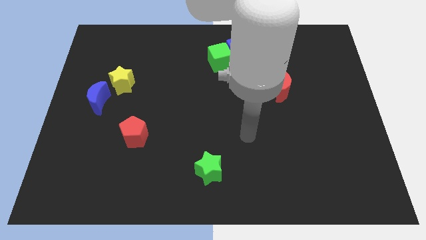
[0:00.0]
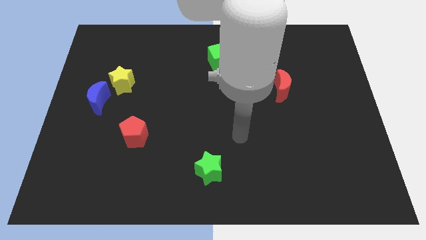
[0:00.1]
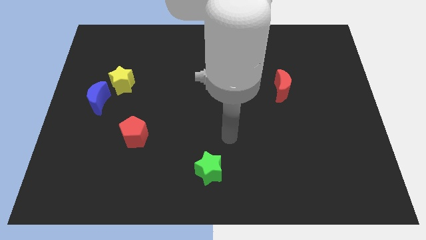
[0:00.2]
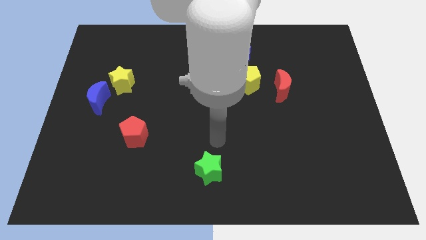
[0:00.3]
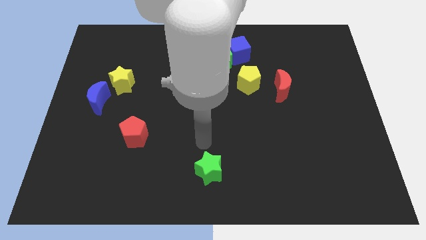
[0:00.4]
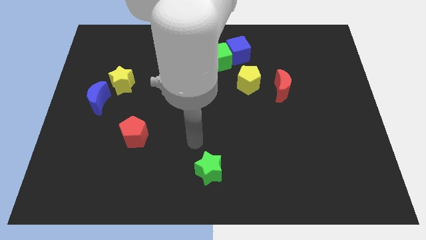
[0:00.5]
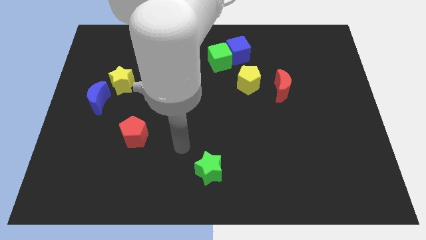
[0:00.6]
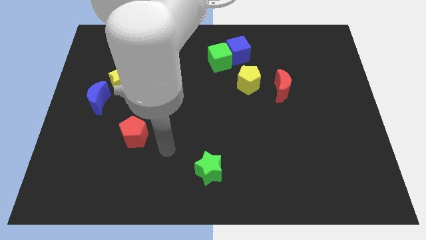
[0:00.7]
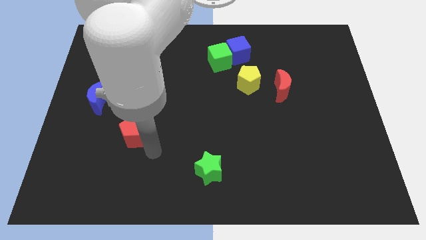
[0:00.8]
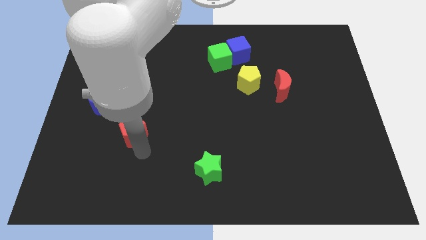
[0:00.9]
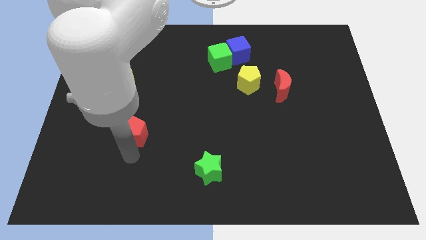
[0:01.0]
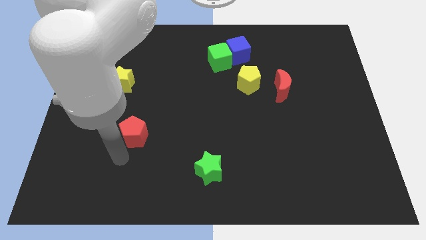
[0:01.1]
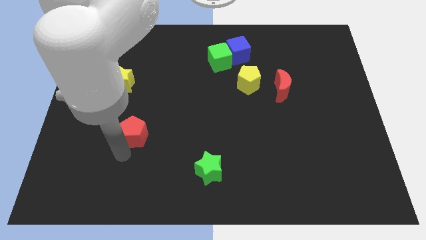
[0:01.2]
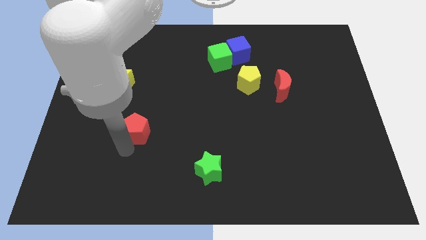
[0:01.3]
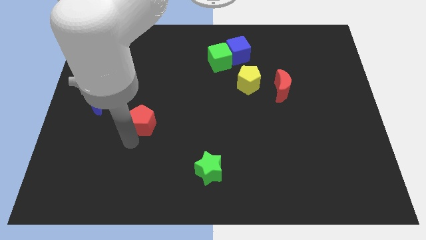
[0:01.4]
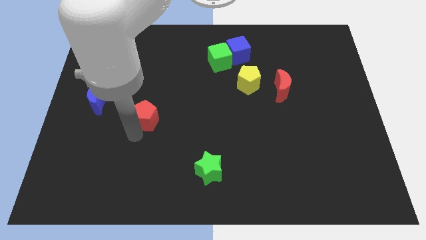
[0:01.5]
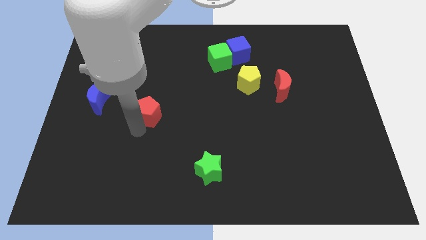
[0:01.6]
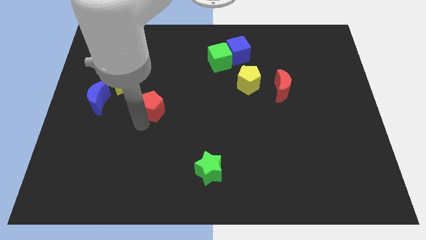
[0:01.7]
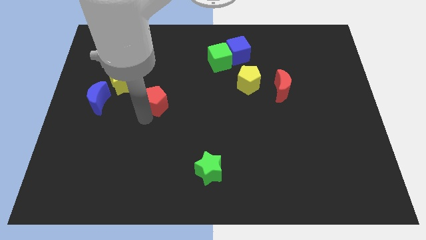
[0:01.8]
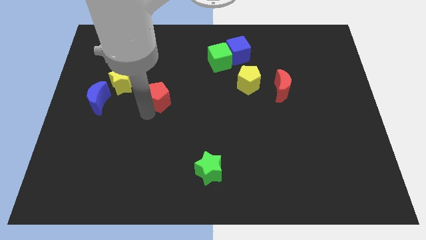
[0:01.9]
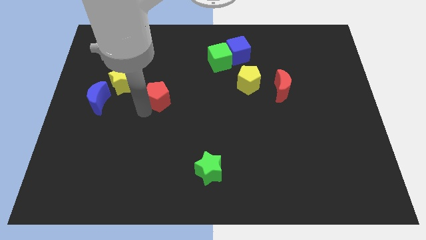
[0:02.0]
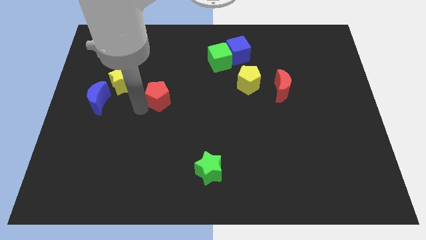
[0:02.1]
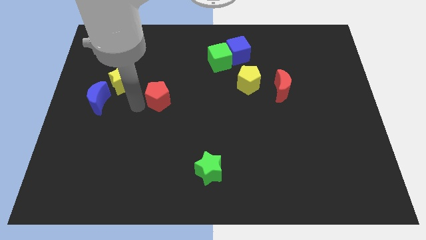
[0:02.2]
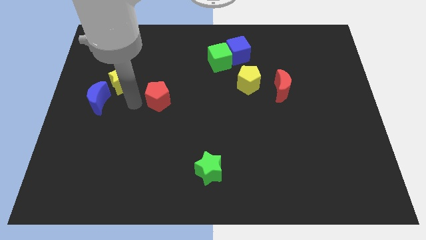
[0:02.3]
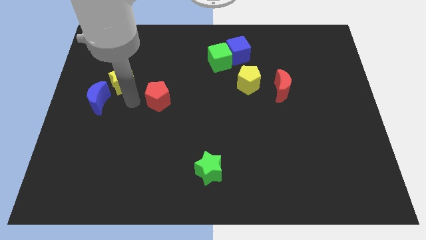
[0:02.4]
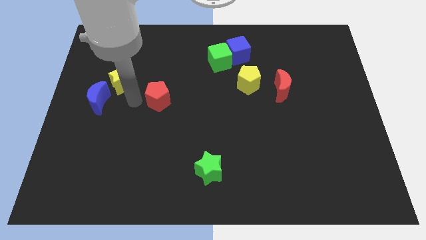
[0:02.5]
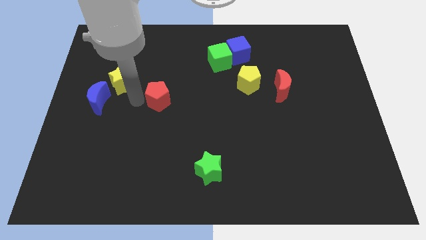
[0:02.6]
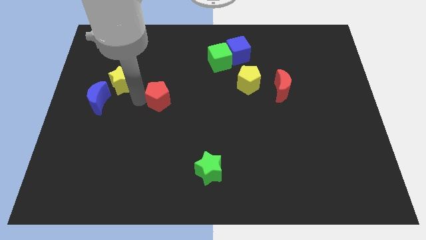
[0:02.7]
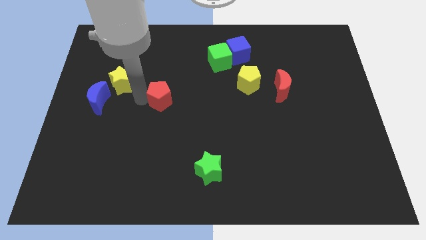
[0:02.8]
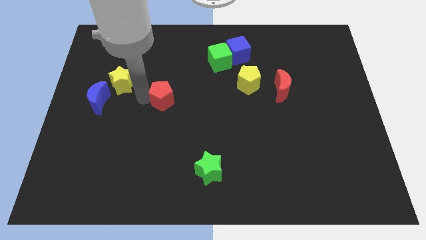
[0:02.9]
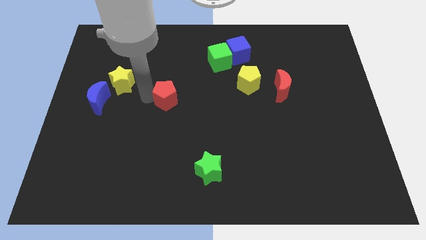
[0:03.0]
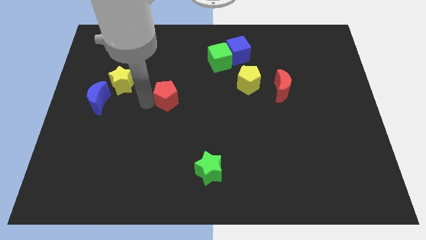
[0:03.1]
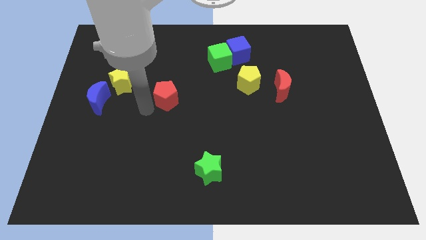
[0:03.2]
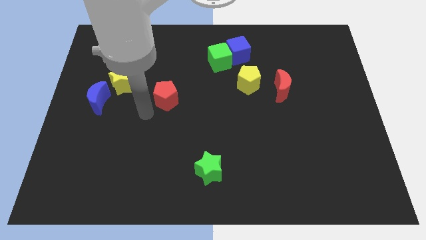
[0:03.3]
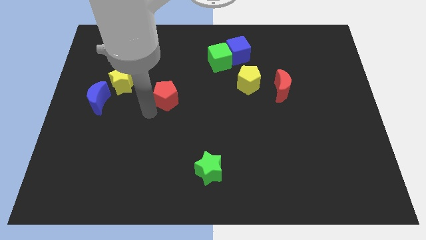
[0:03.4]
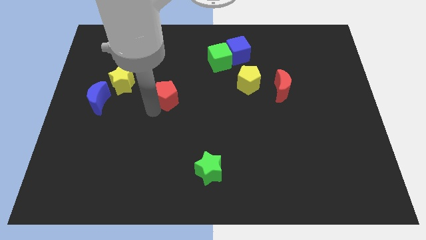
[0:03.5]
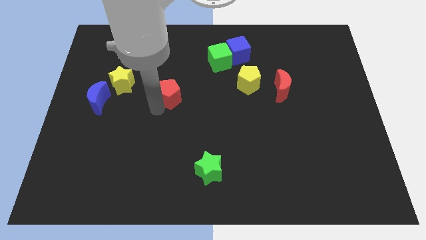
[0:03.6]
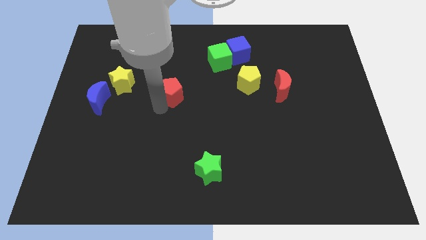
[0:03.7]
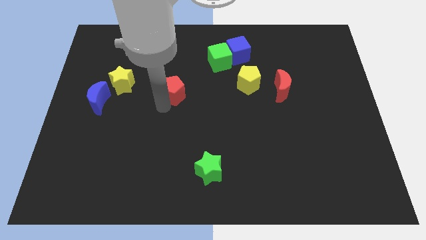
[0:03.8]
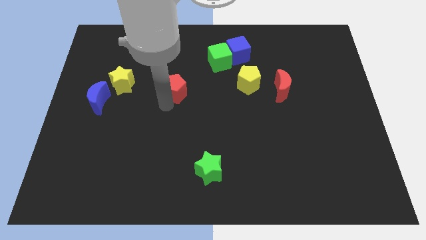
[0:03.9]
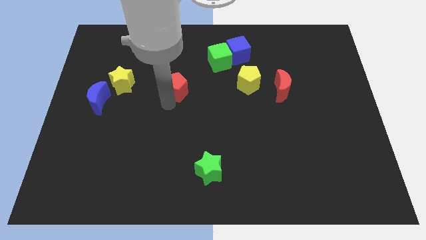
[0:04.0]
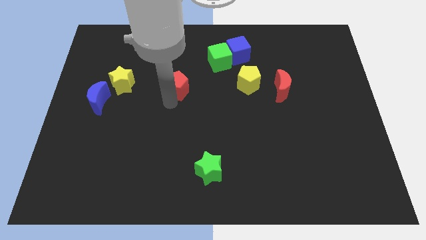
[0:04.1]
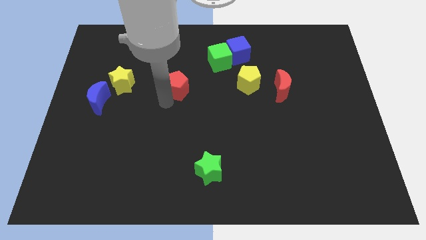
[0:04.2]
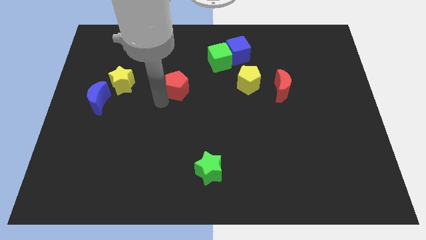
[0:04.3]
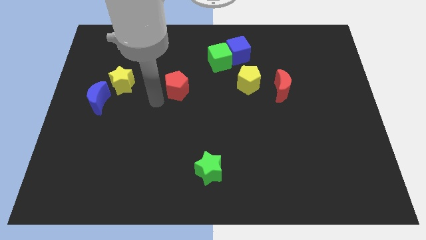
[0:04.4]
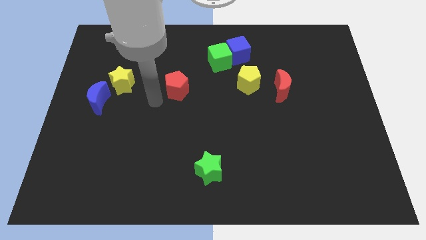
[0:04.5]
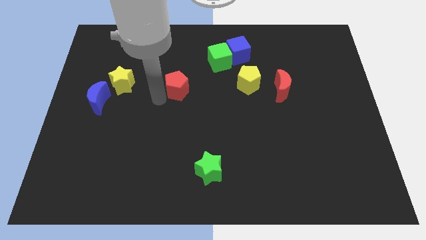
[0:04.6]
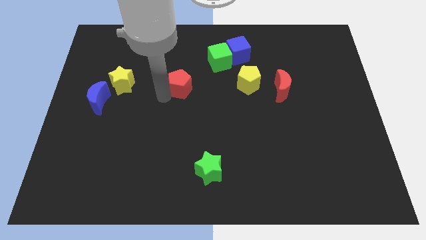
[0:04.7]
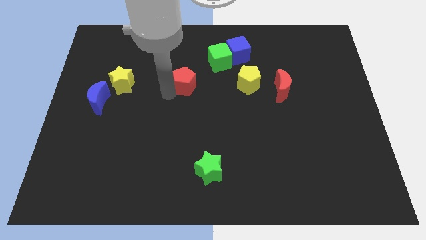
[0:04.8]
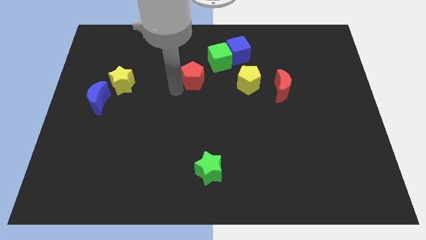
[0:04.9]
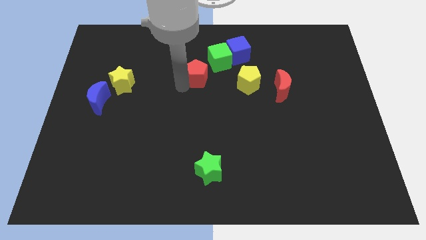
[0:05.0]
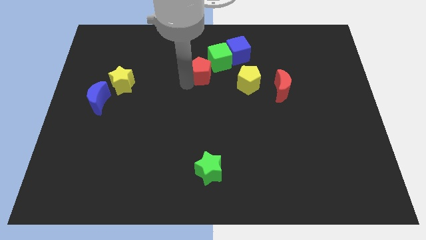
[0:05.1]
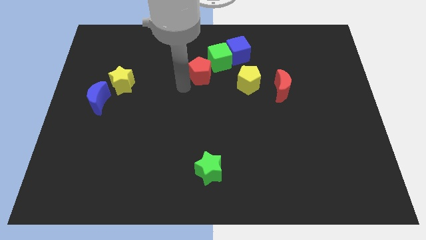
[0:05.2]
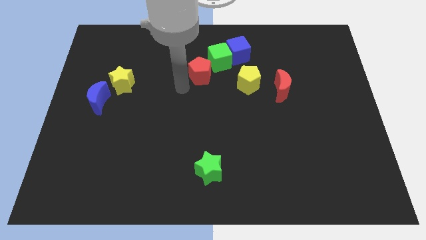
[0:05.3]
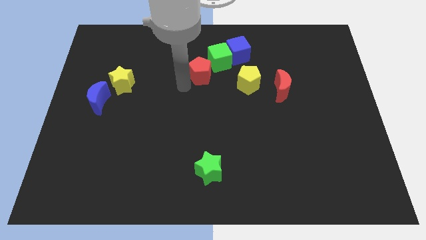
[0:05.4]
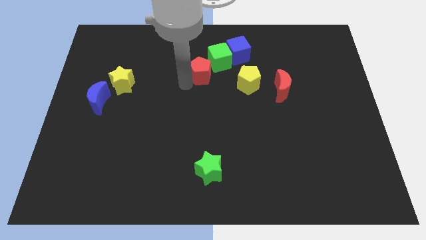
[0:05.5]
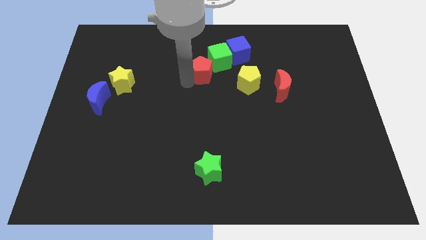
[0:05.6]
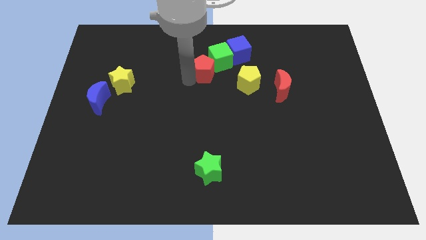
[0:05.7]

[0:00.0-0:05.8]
move the red pentagon towards the green cube

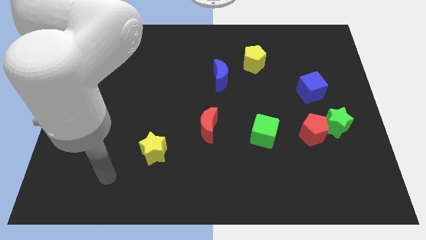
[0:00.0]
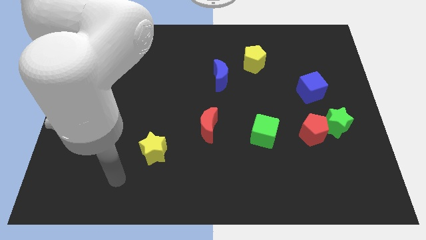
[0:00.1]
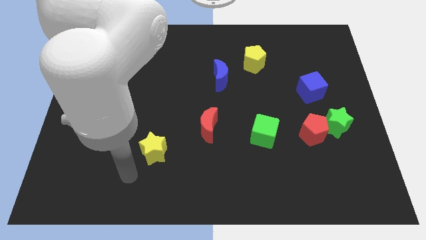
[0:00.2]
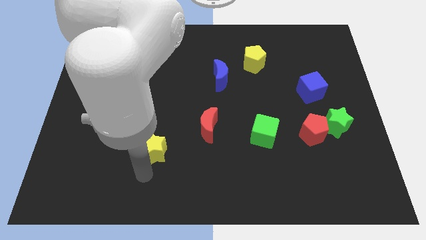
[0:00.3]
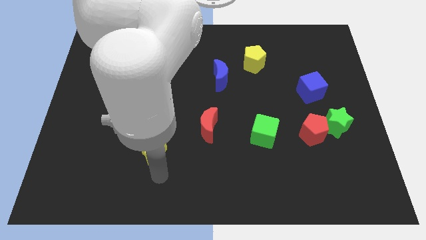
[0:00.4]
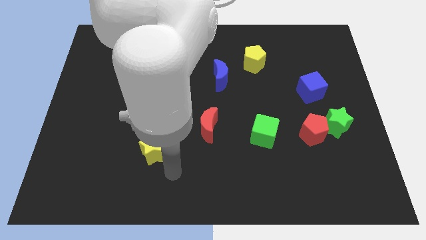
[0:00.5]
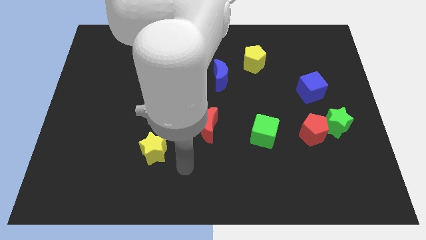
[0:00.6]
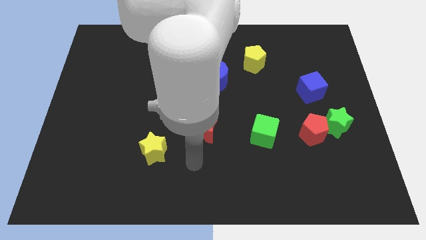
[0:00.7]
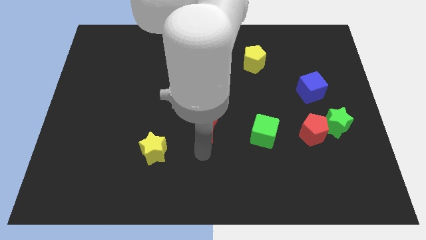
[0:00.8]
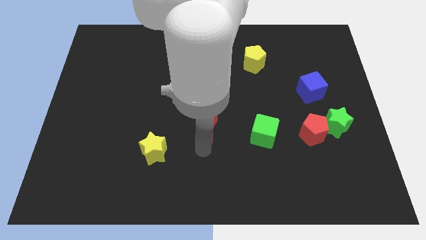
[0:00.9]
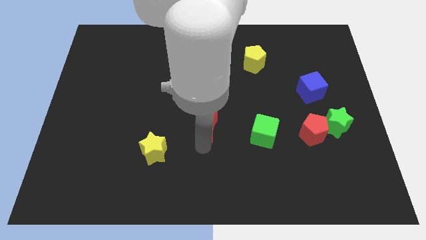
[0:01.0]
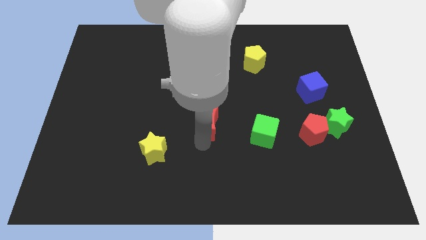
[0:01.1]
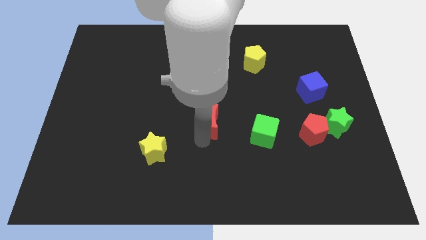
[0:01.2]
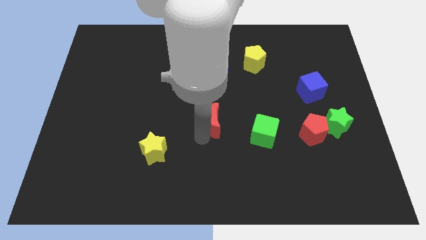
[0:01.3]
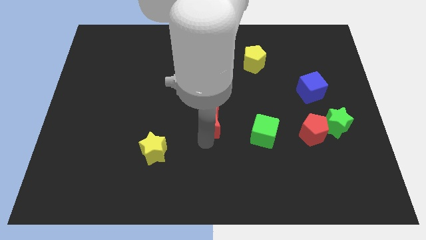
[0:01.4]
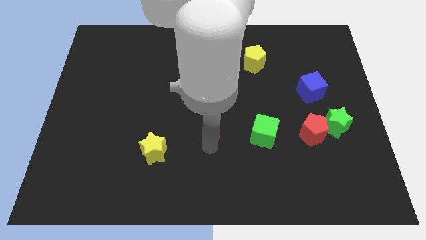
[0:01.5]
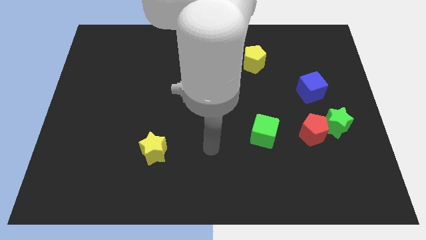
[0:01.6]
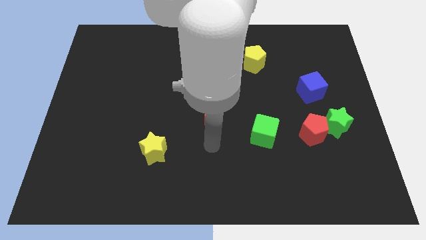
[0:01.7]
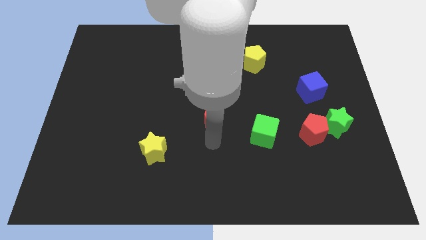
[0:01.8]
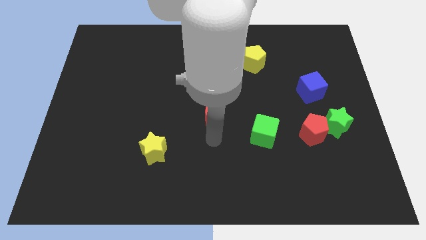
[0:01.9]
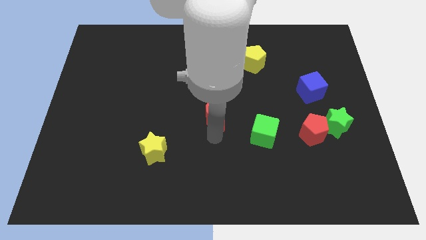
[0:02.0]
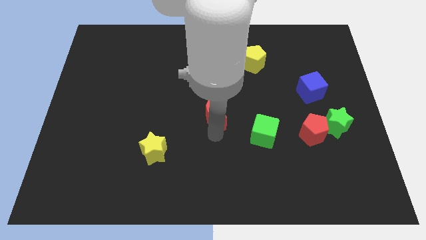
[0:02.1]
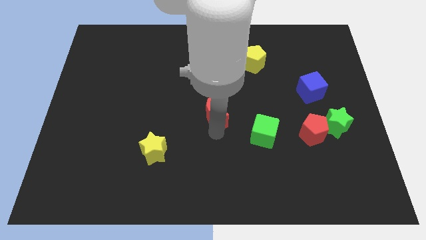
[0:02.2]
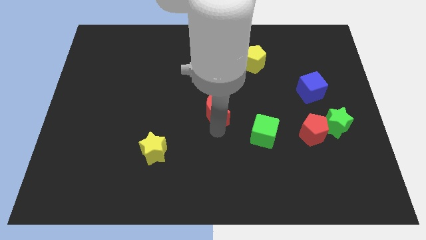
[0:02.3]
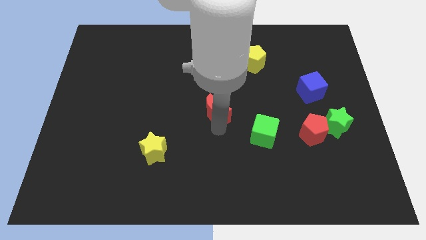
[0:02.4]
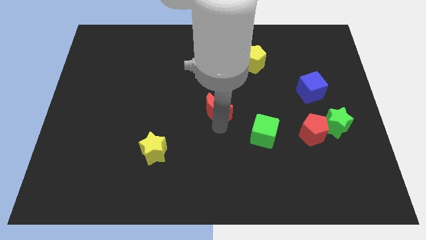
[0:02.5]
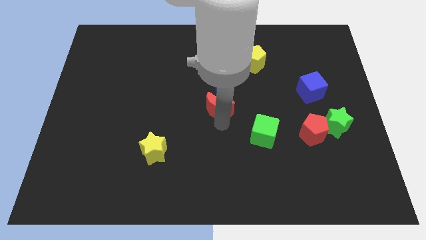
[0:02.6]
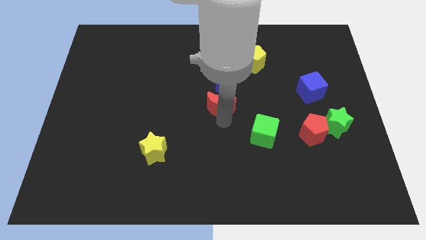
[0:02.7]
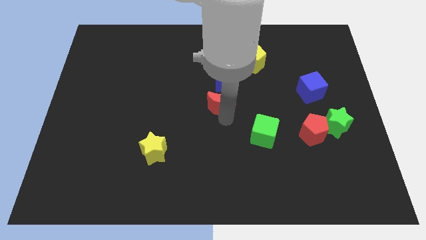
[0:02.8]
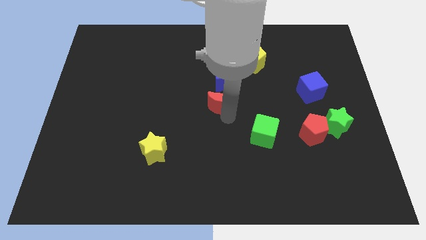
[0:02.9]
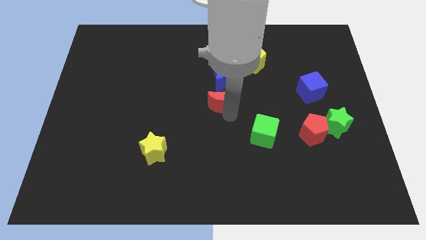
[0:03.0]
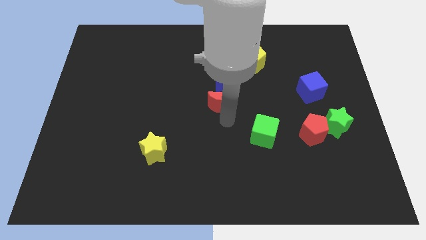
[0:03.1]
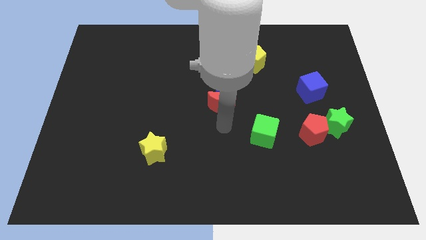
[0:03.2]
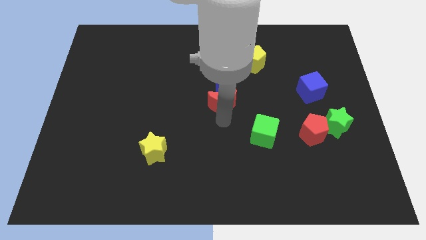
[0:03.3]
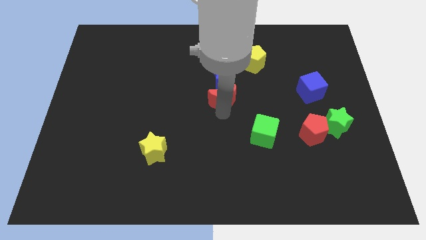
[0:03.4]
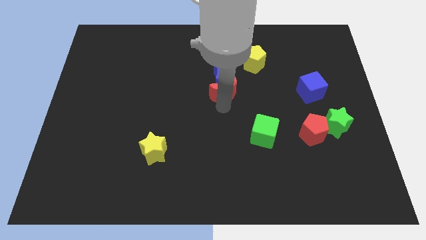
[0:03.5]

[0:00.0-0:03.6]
push the red moon towards the blue moon
